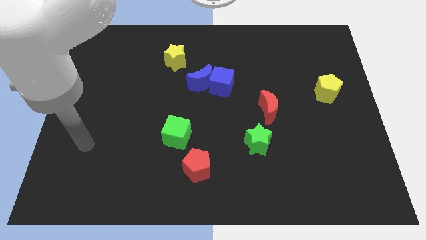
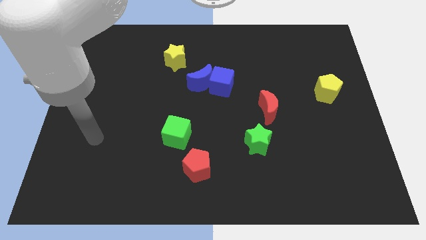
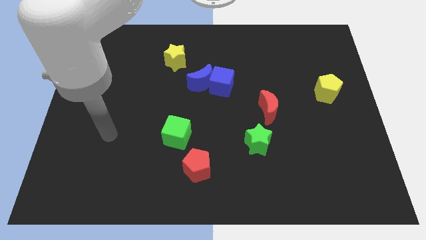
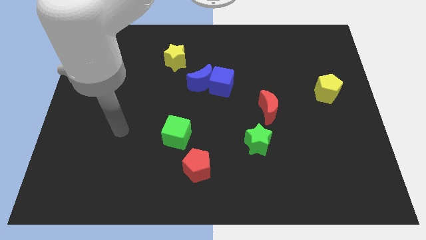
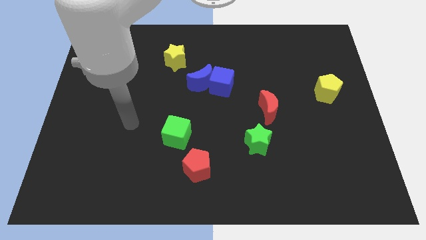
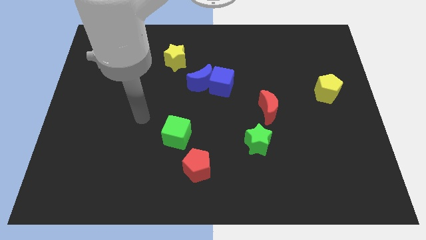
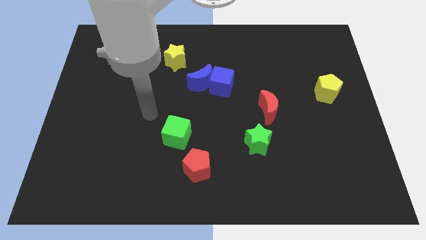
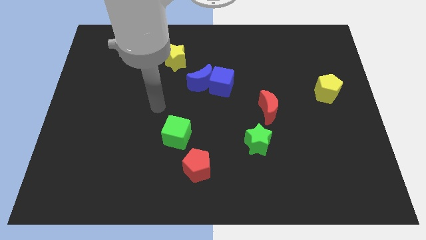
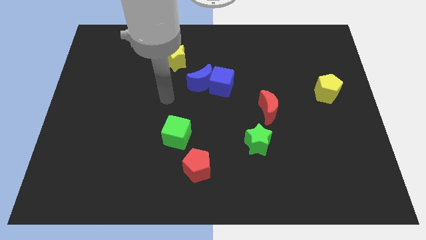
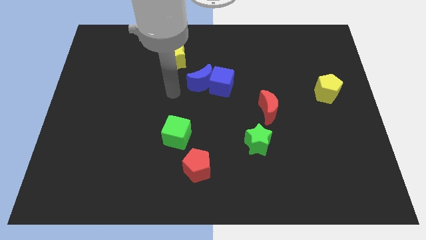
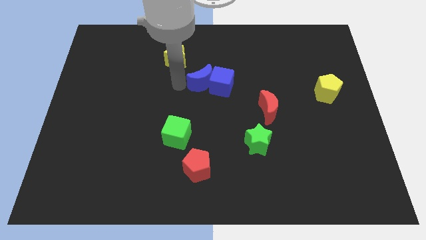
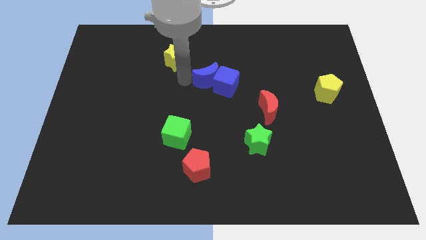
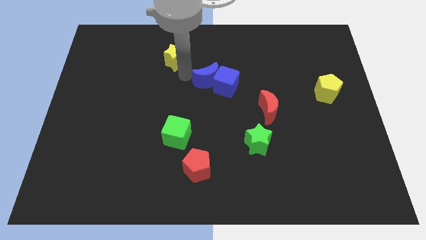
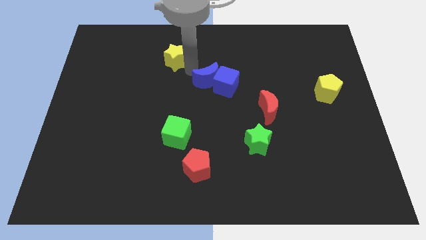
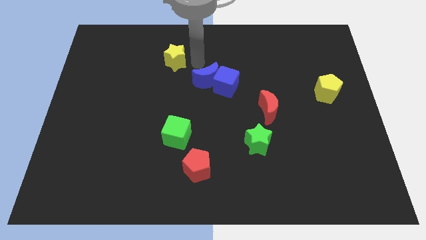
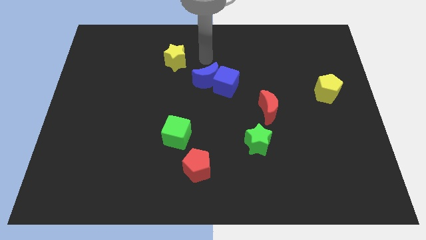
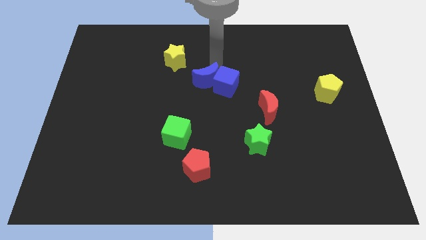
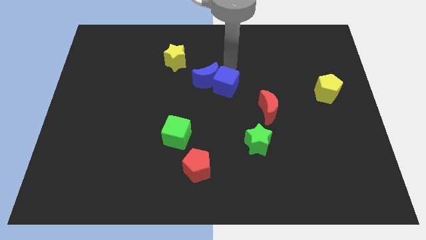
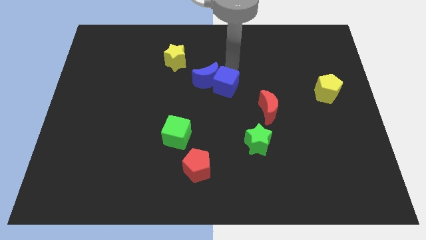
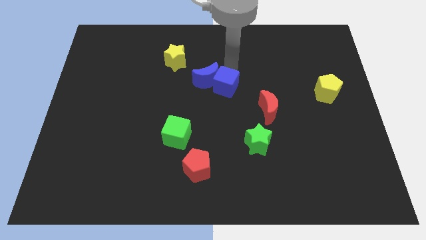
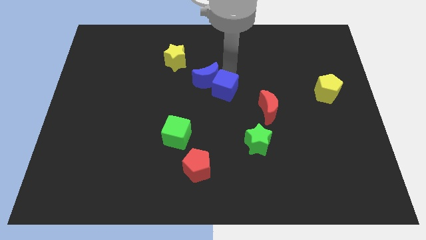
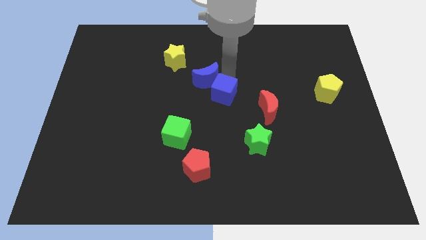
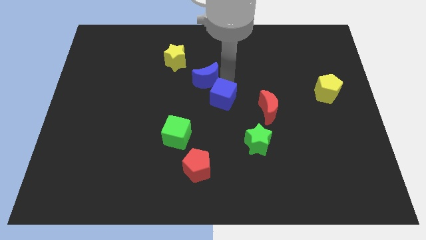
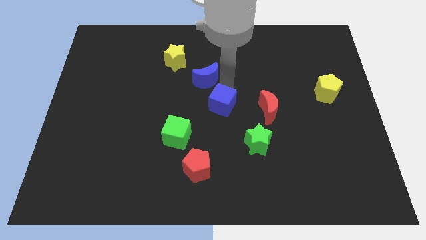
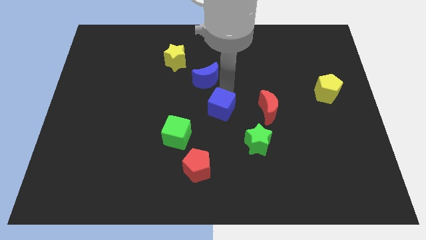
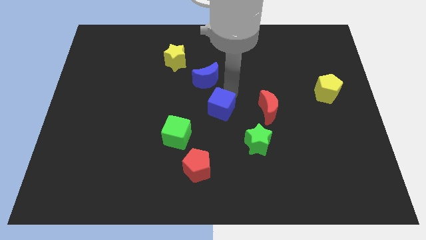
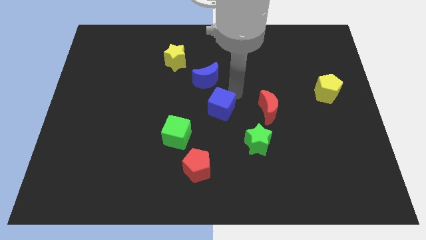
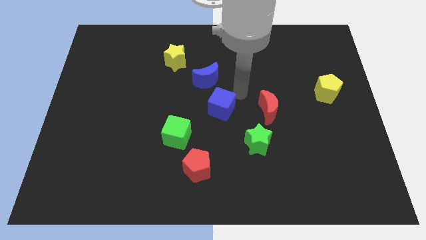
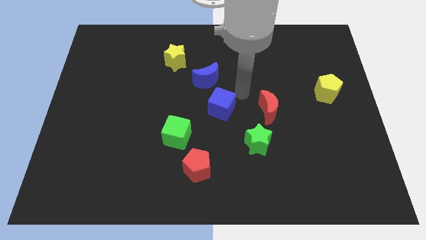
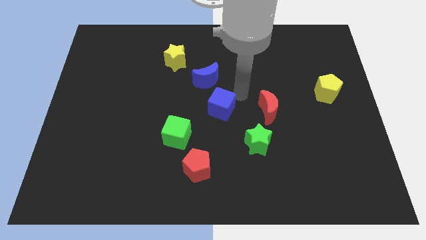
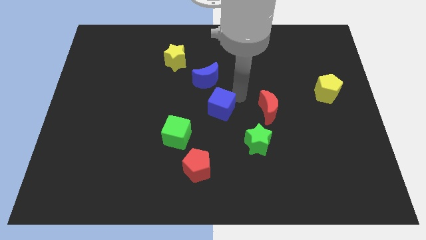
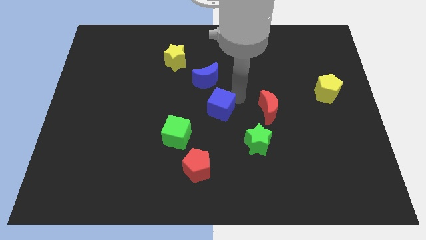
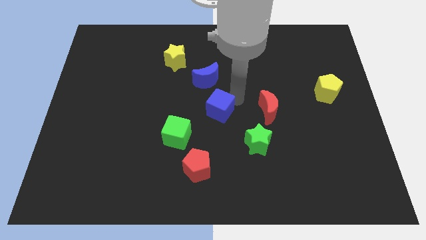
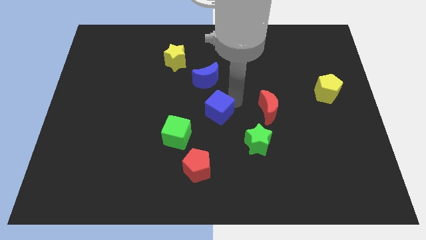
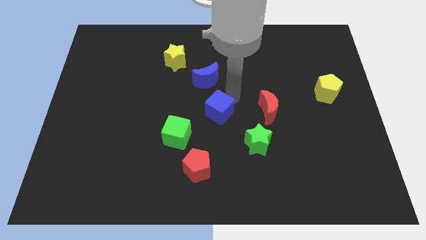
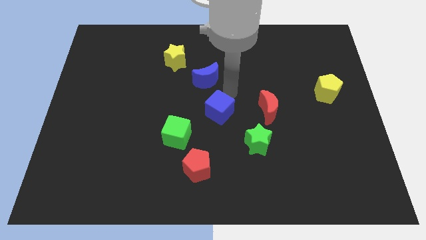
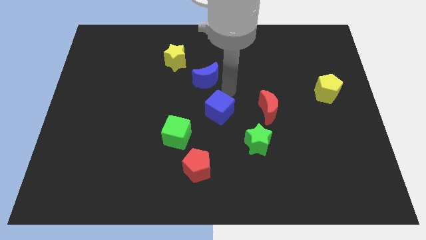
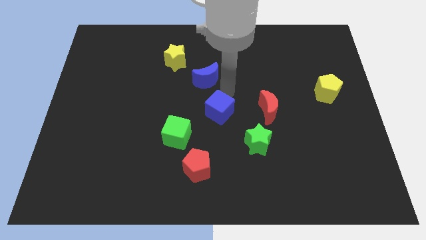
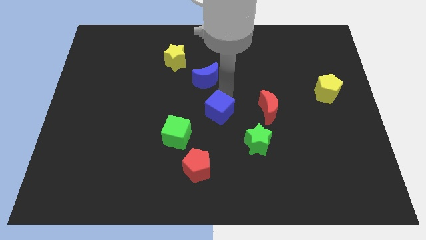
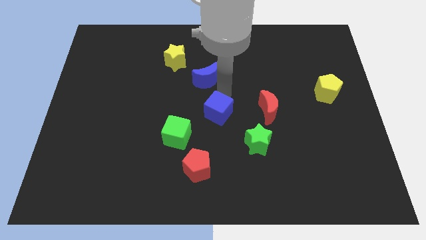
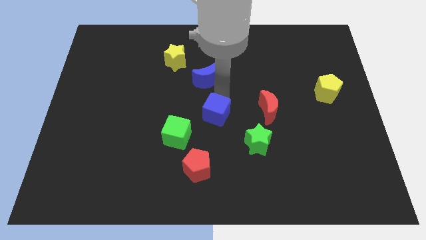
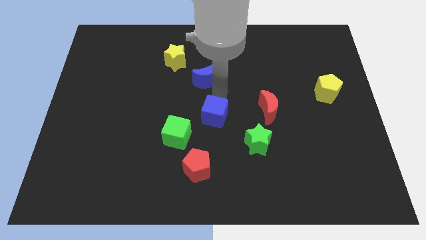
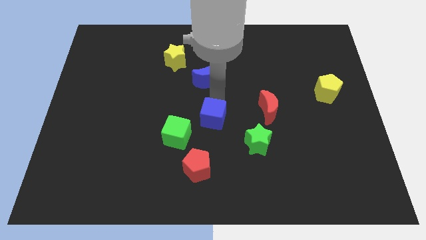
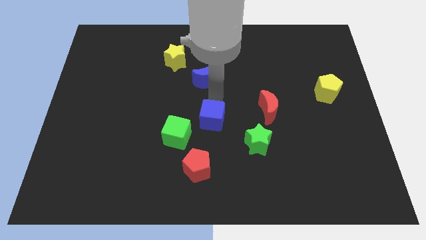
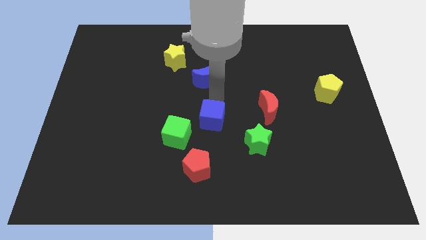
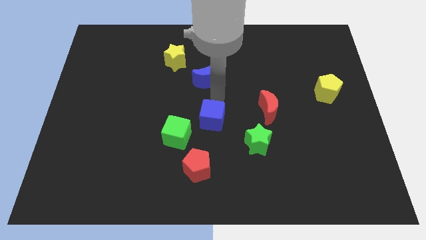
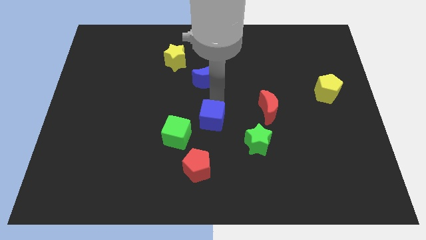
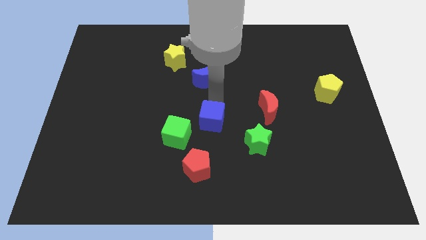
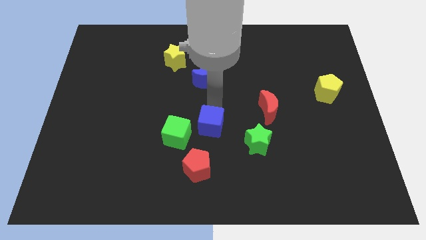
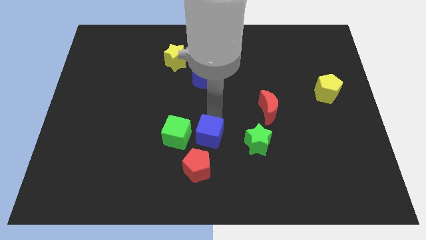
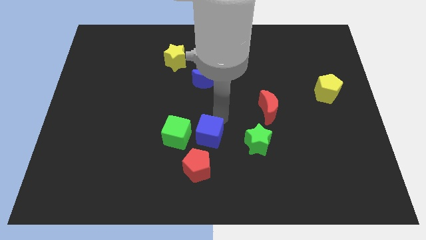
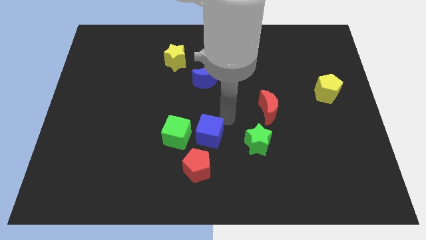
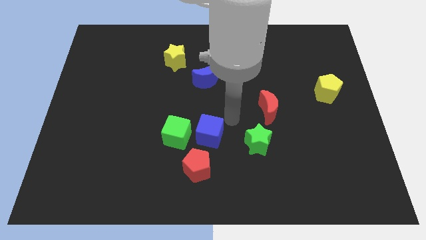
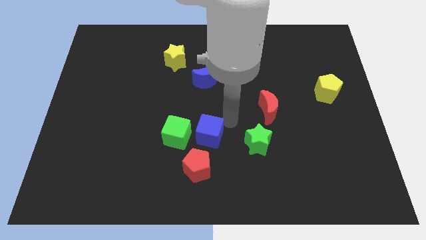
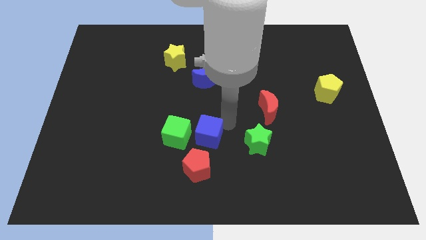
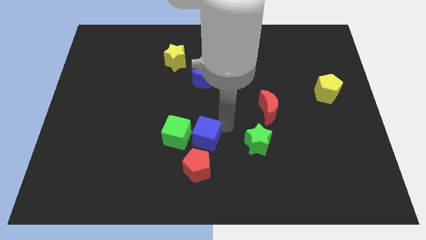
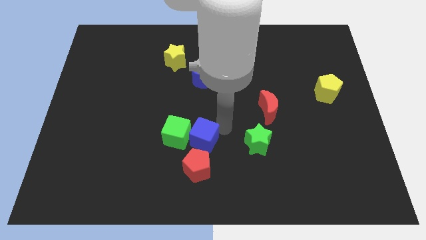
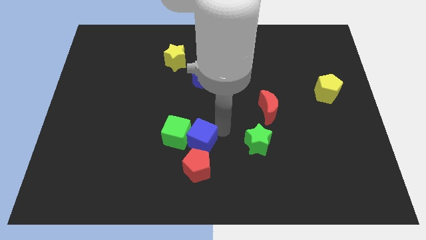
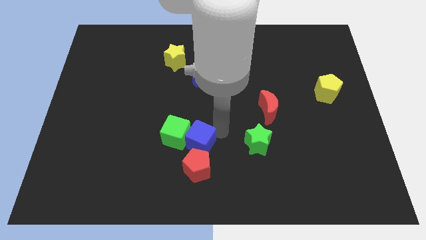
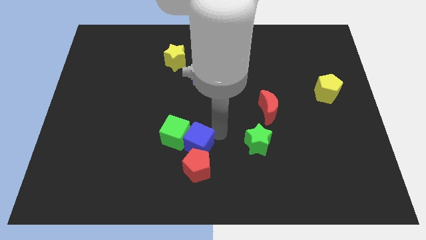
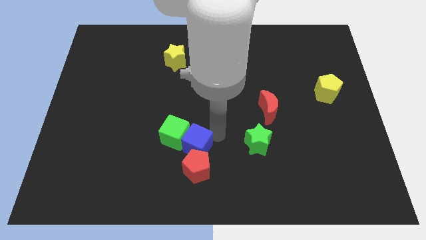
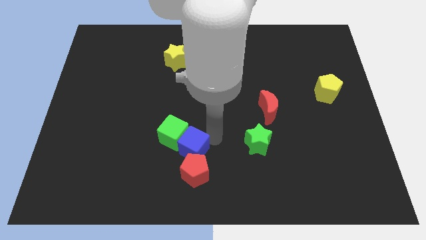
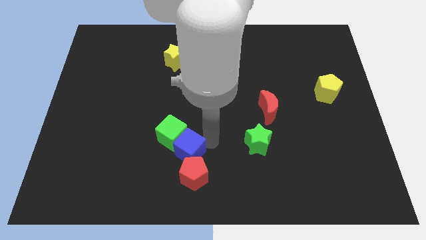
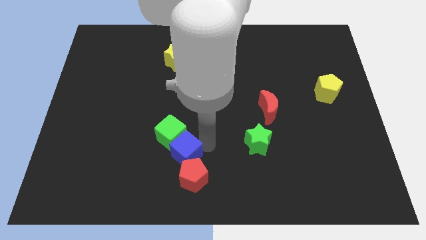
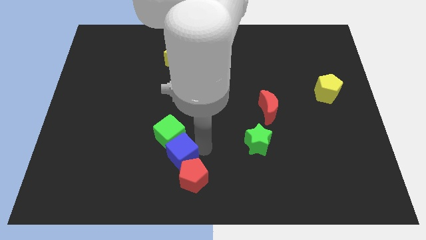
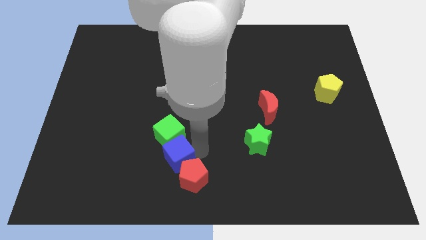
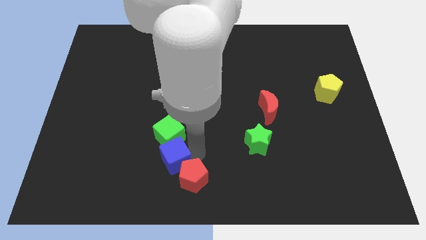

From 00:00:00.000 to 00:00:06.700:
move the blue cube to the left side of the red pentagon
